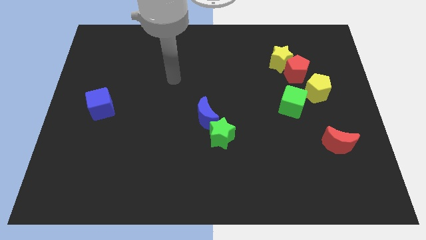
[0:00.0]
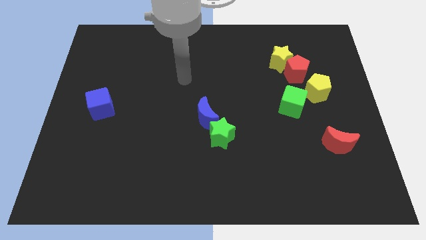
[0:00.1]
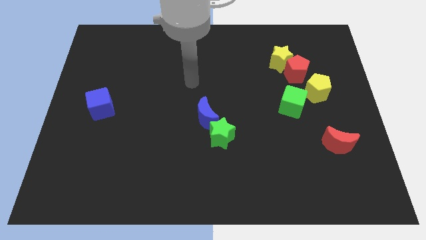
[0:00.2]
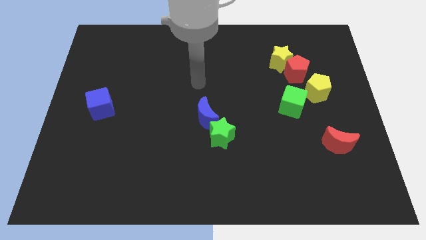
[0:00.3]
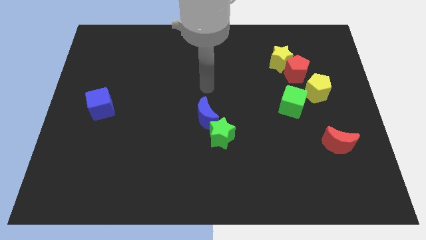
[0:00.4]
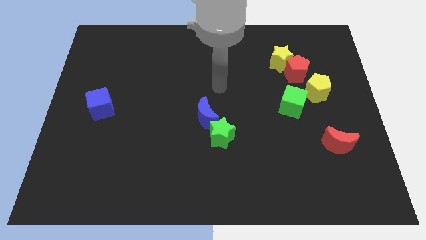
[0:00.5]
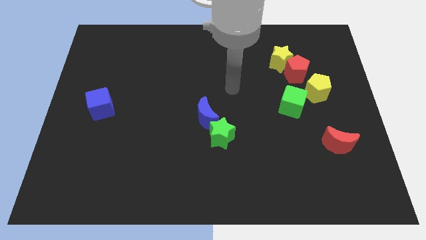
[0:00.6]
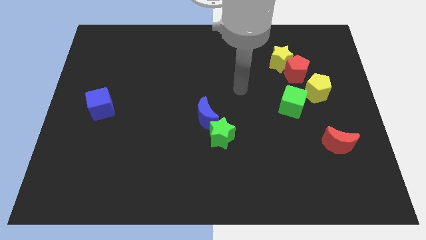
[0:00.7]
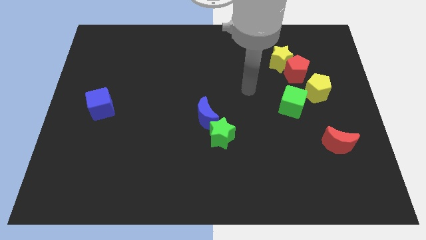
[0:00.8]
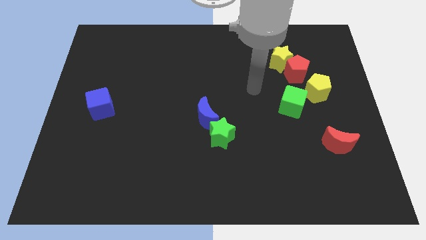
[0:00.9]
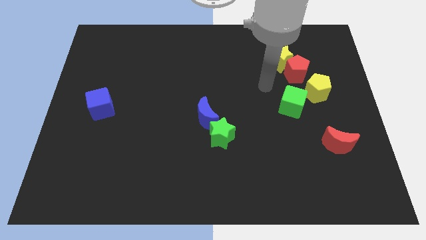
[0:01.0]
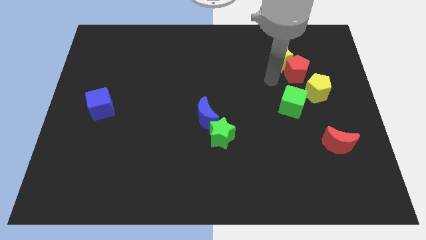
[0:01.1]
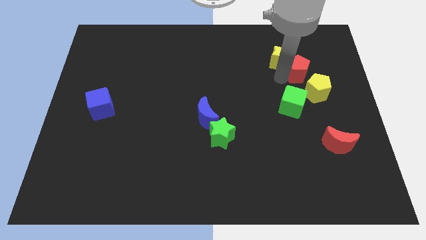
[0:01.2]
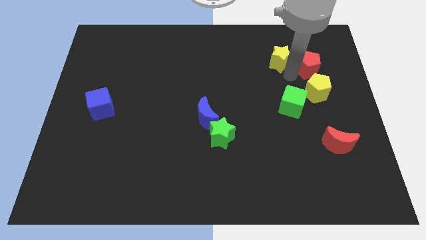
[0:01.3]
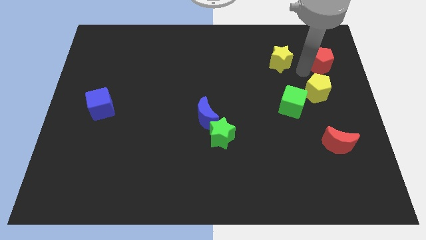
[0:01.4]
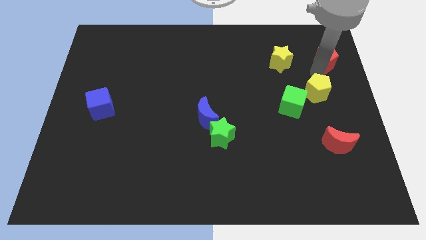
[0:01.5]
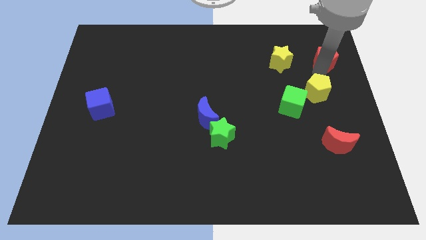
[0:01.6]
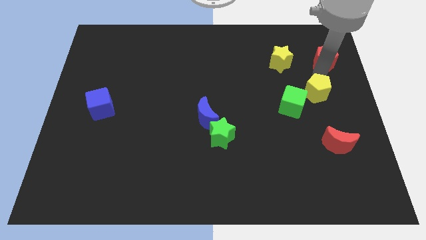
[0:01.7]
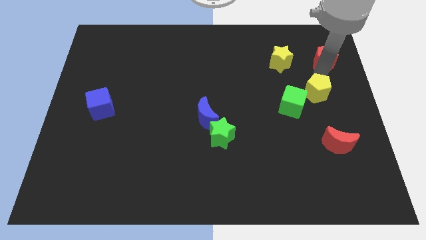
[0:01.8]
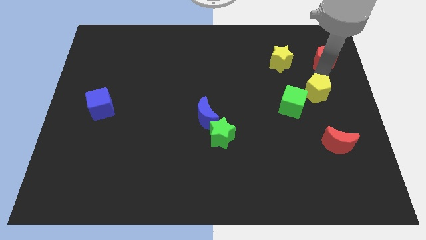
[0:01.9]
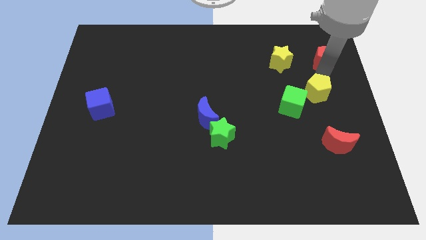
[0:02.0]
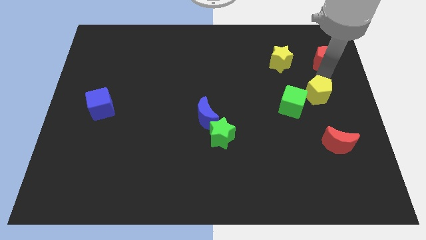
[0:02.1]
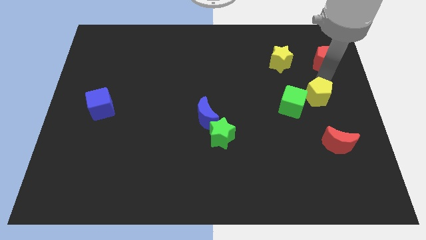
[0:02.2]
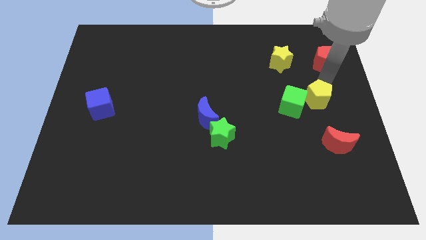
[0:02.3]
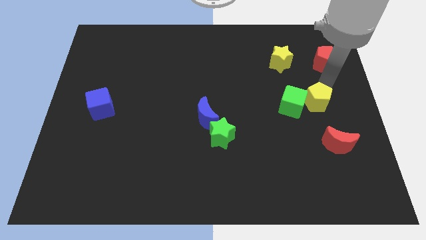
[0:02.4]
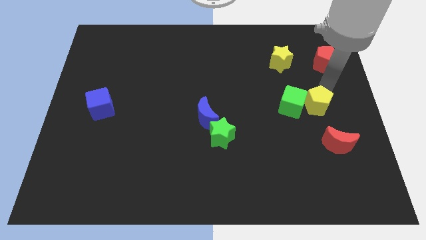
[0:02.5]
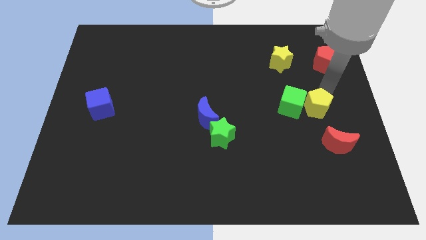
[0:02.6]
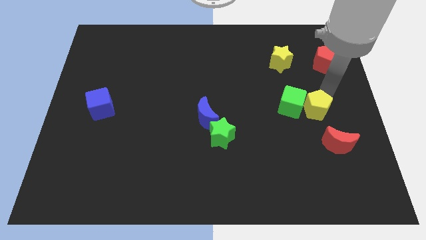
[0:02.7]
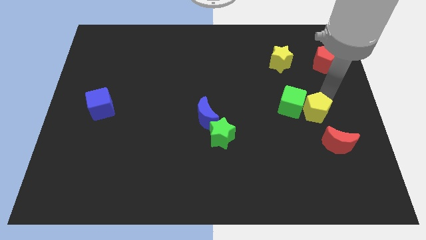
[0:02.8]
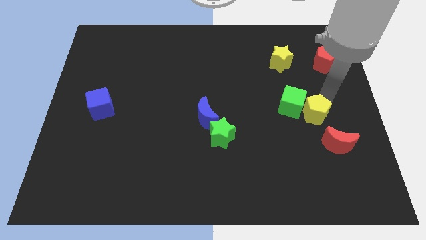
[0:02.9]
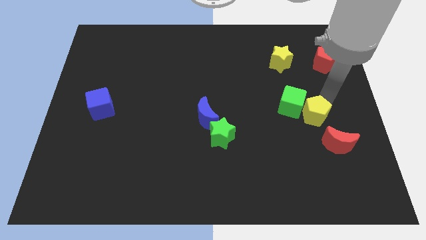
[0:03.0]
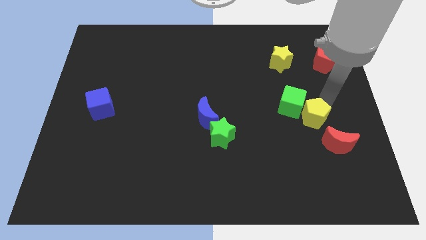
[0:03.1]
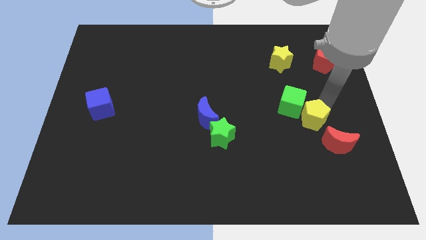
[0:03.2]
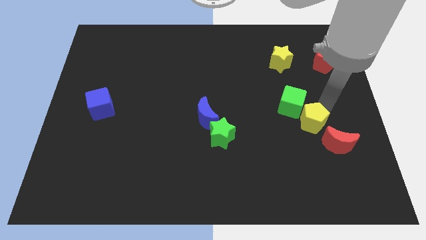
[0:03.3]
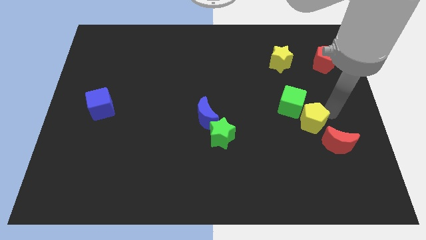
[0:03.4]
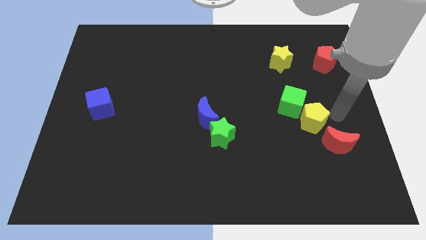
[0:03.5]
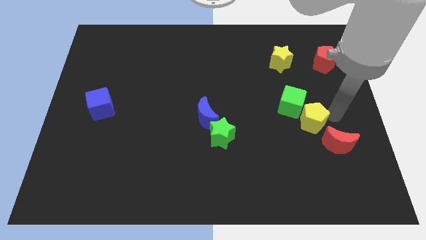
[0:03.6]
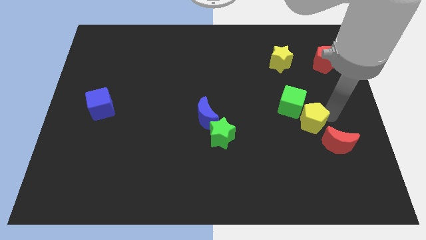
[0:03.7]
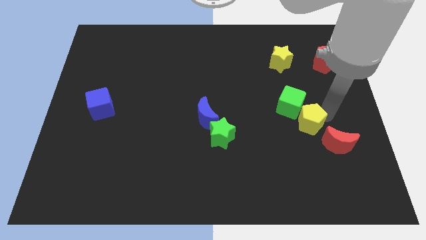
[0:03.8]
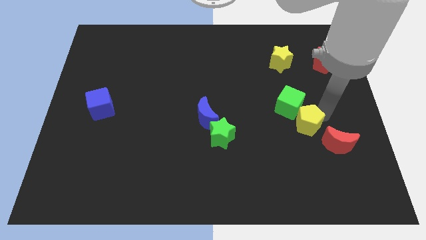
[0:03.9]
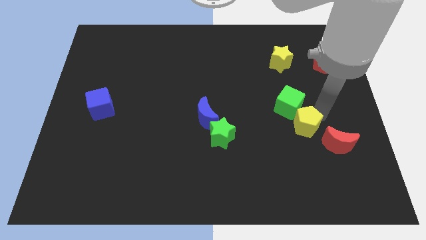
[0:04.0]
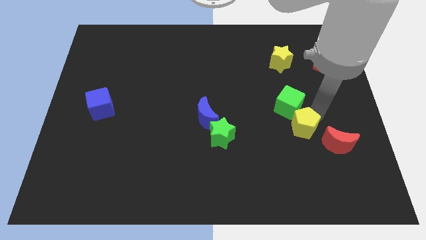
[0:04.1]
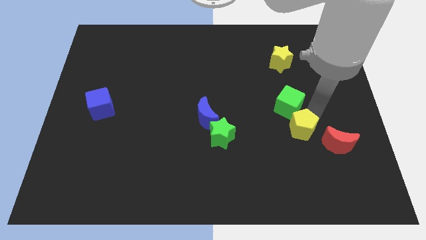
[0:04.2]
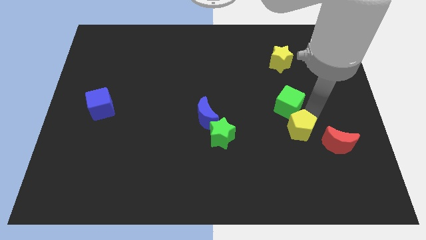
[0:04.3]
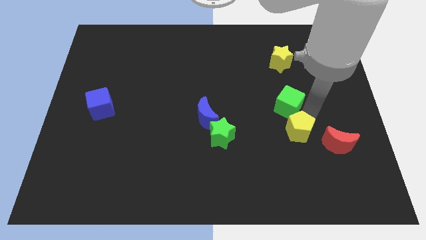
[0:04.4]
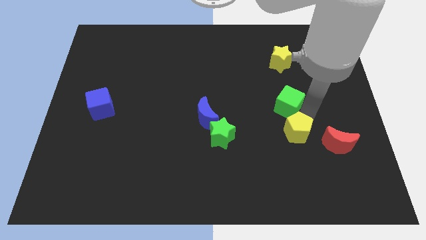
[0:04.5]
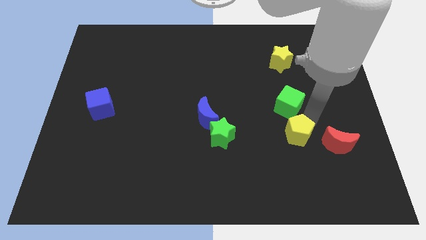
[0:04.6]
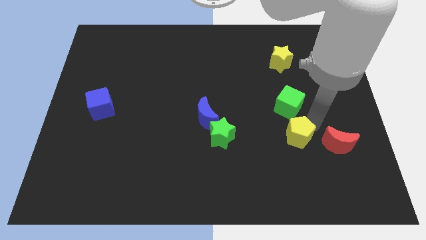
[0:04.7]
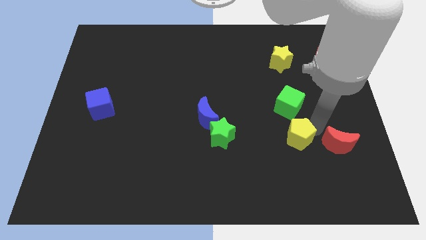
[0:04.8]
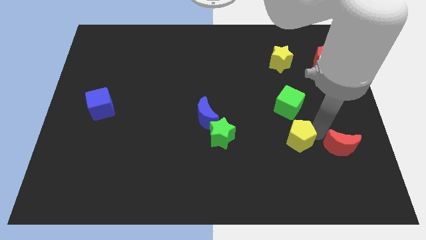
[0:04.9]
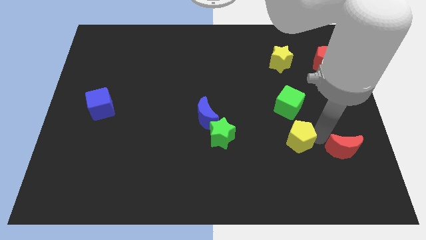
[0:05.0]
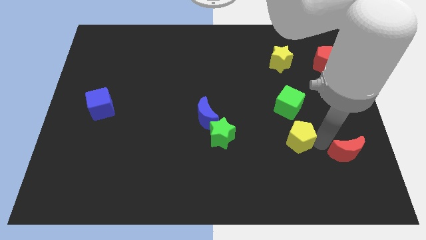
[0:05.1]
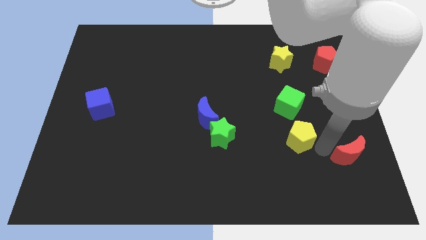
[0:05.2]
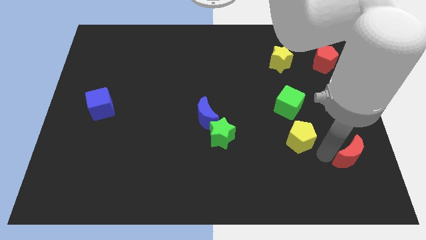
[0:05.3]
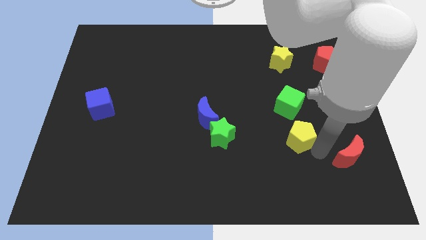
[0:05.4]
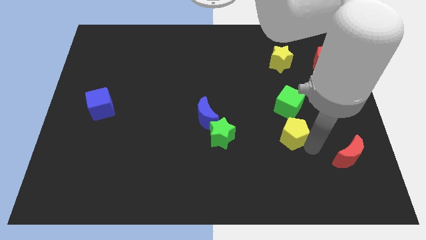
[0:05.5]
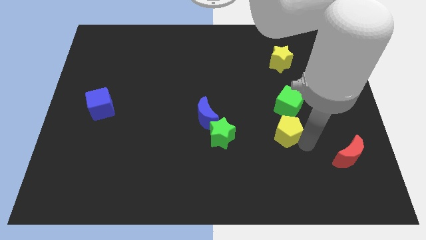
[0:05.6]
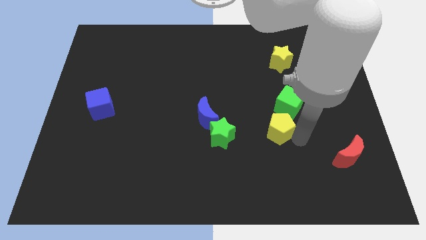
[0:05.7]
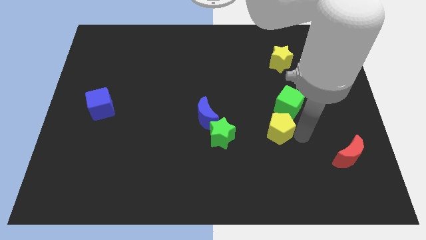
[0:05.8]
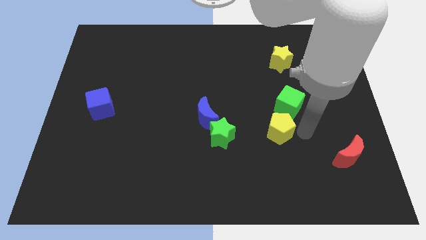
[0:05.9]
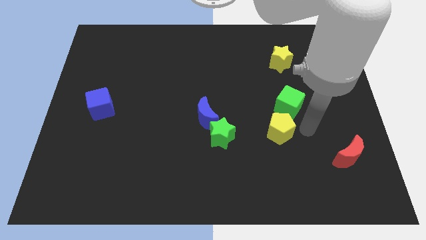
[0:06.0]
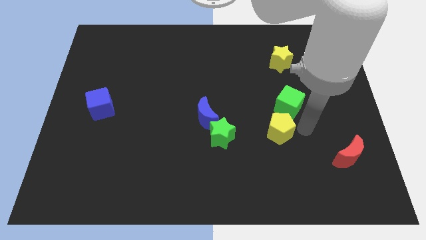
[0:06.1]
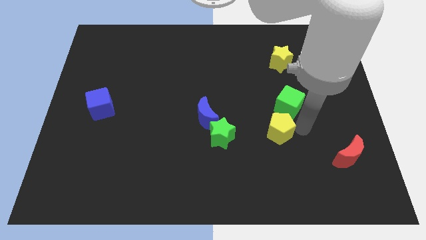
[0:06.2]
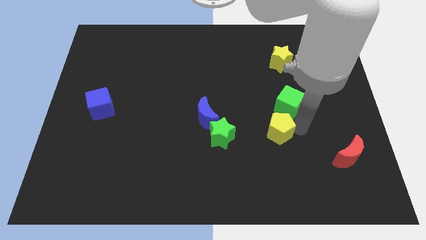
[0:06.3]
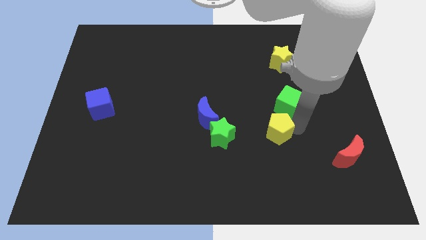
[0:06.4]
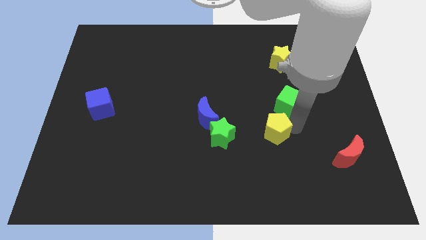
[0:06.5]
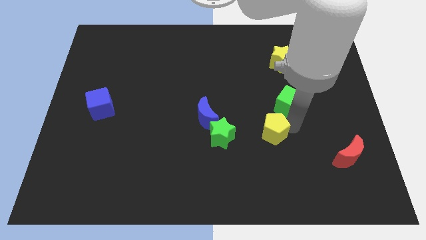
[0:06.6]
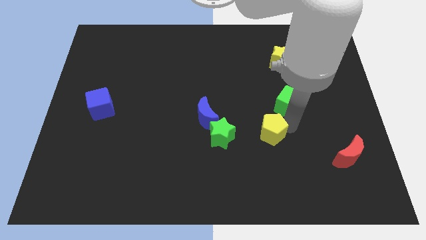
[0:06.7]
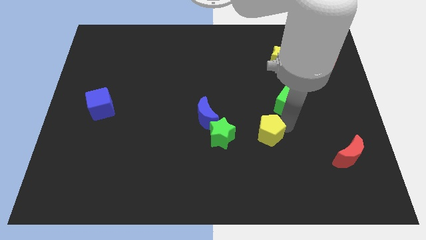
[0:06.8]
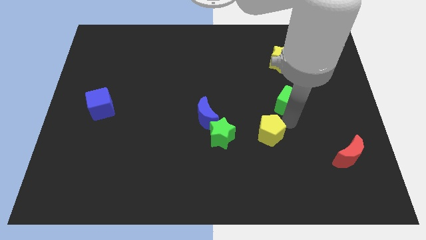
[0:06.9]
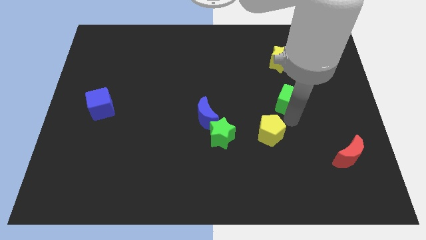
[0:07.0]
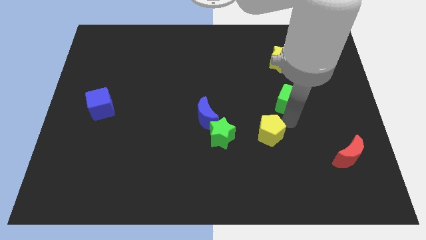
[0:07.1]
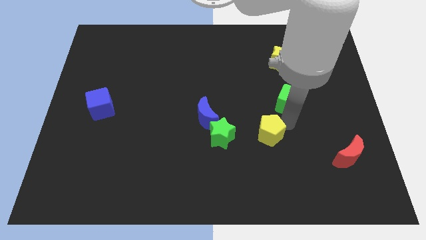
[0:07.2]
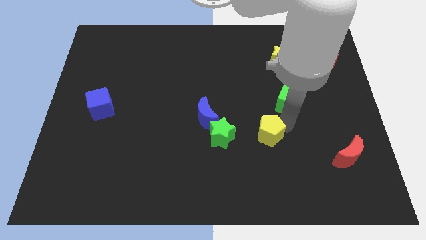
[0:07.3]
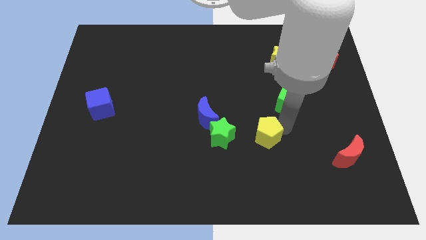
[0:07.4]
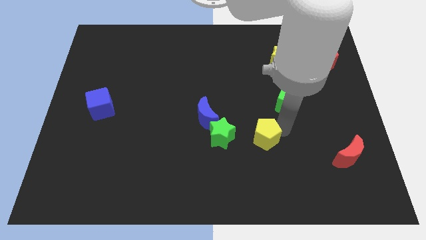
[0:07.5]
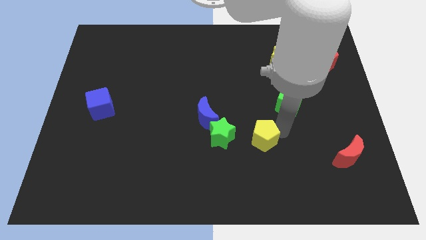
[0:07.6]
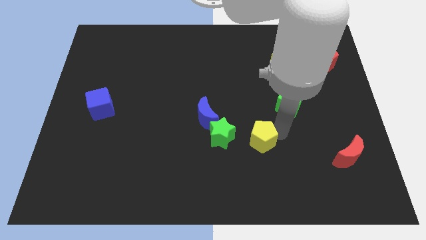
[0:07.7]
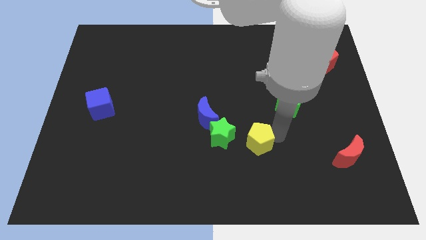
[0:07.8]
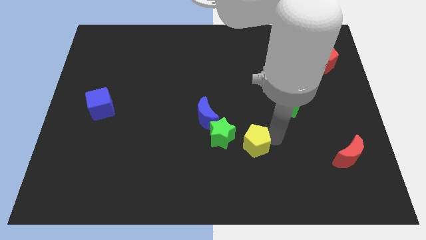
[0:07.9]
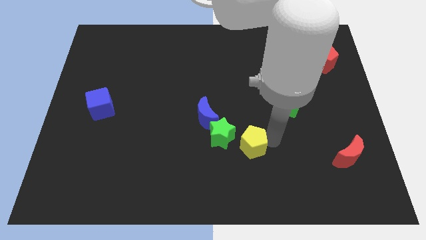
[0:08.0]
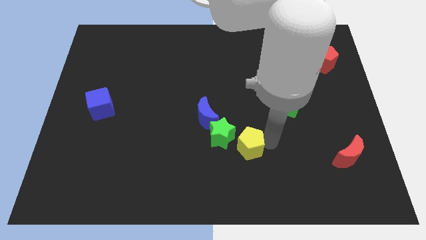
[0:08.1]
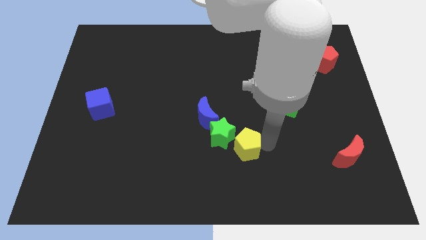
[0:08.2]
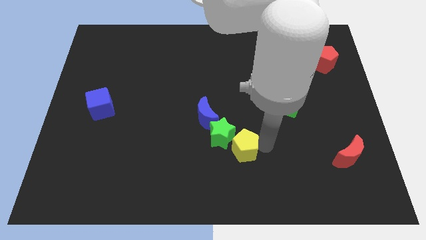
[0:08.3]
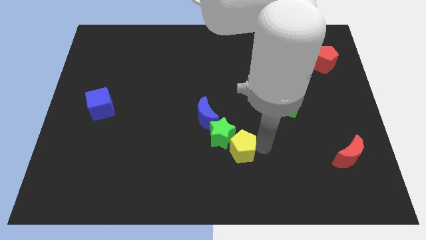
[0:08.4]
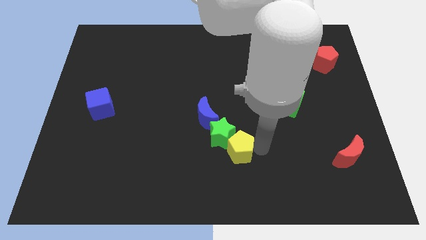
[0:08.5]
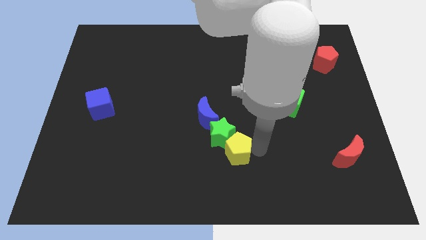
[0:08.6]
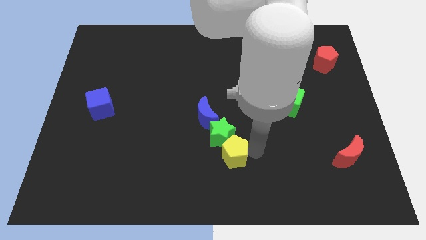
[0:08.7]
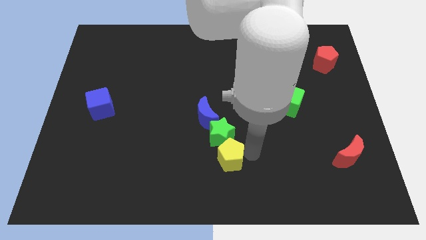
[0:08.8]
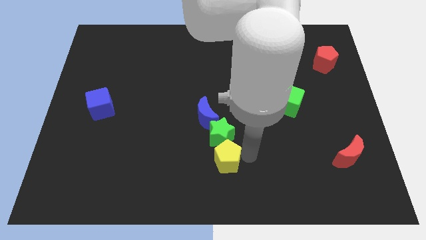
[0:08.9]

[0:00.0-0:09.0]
move the yellow pentagon to the bottom left of the green star
